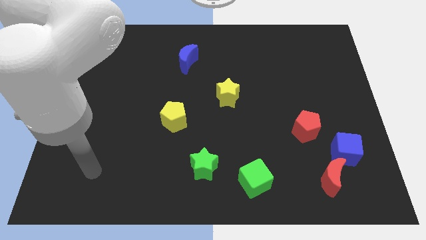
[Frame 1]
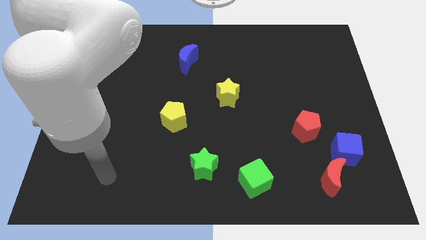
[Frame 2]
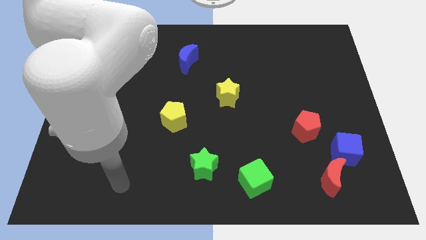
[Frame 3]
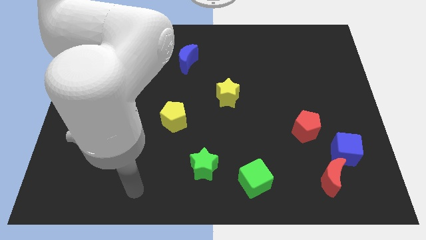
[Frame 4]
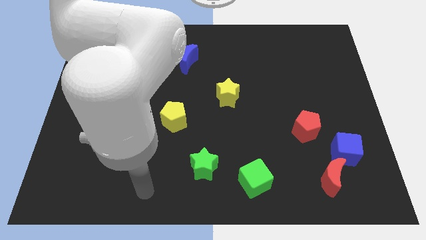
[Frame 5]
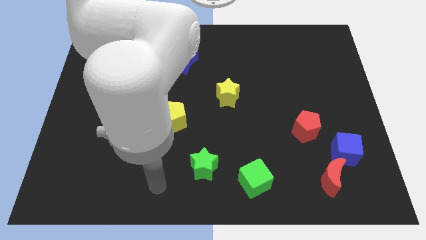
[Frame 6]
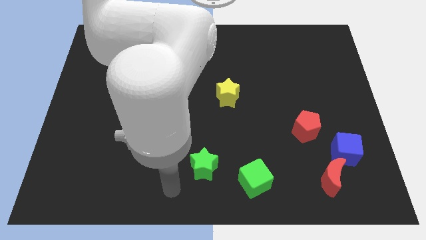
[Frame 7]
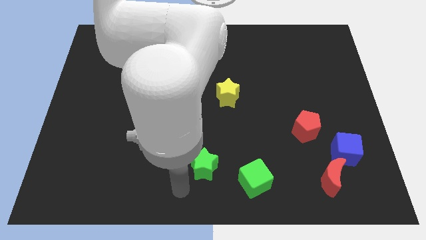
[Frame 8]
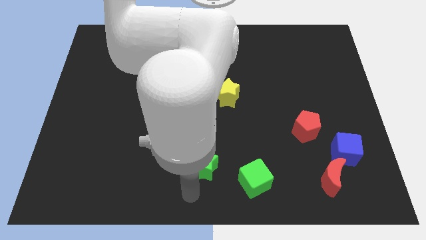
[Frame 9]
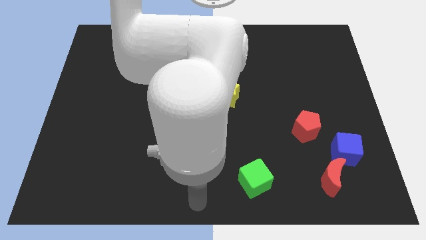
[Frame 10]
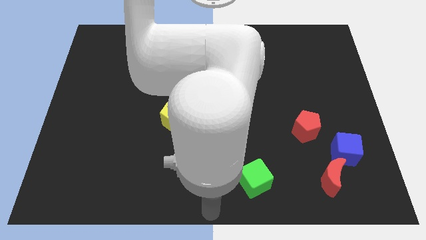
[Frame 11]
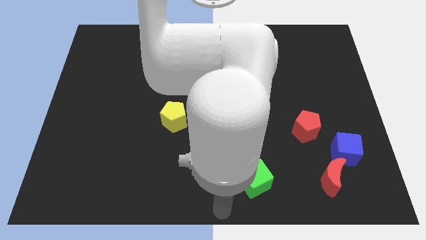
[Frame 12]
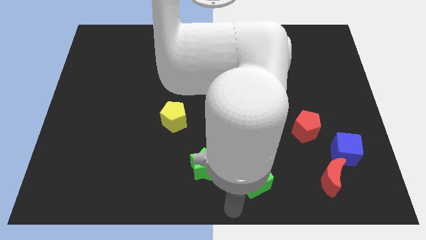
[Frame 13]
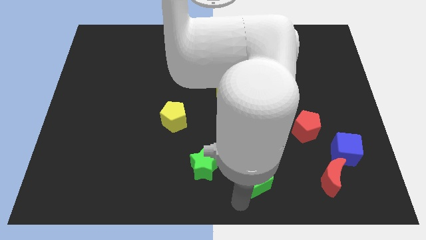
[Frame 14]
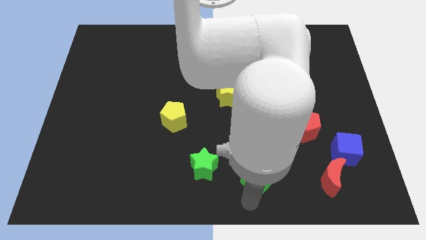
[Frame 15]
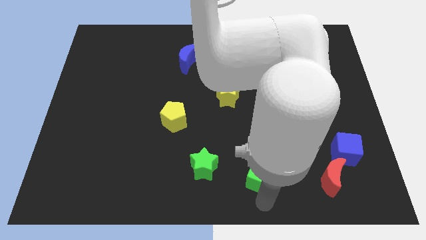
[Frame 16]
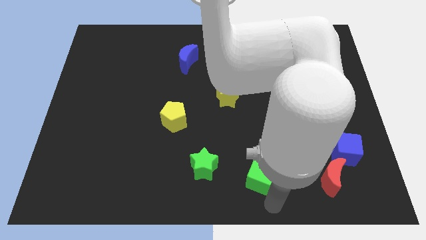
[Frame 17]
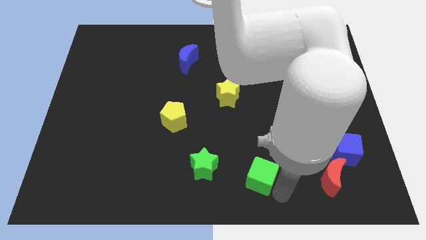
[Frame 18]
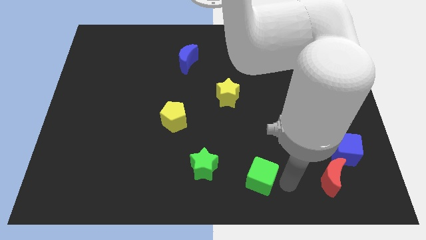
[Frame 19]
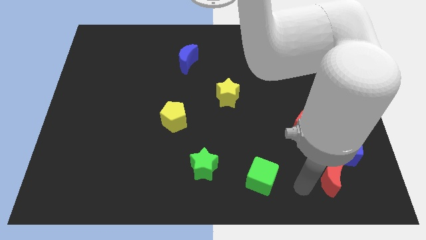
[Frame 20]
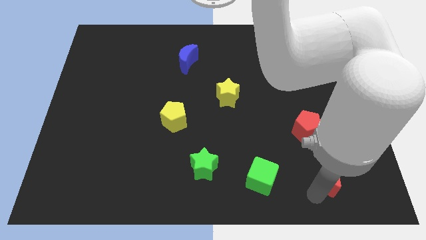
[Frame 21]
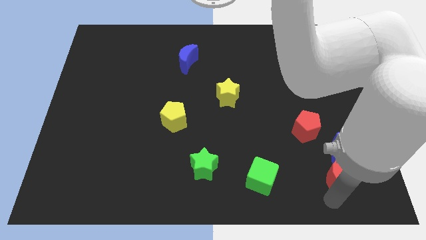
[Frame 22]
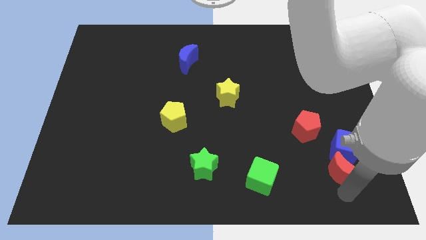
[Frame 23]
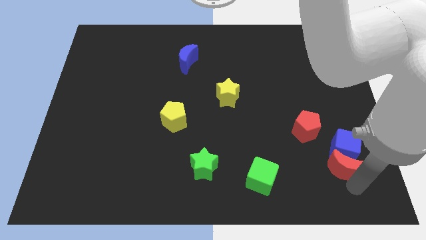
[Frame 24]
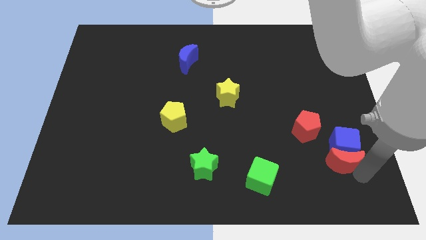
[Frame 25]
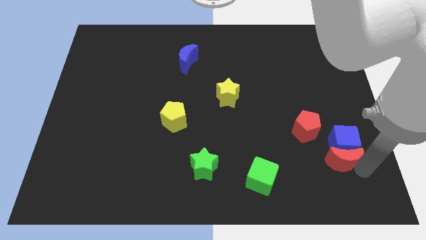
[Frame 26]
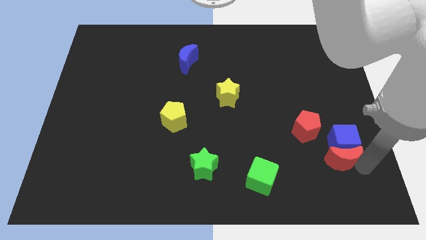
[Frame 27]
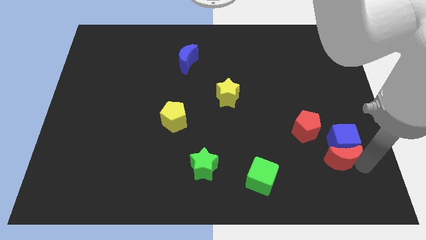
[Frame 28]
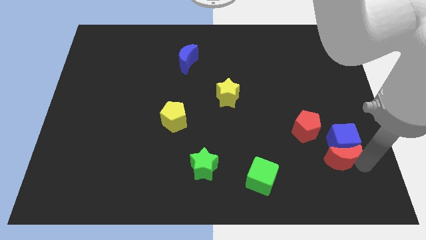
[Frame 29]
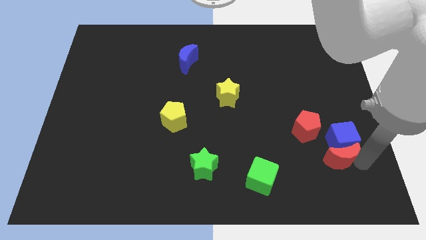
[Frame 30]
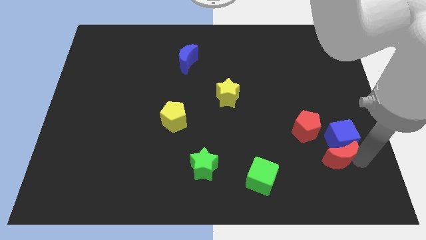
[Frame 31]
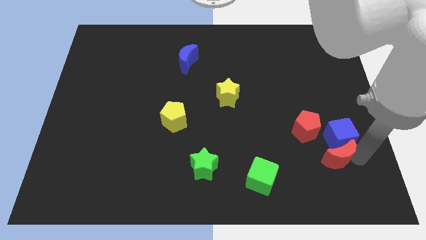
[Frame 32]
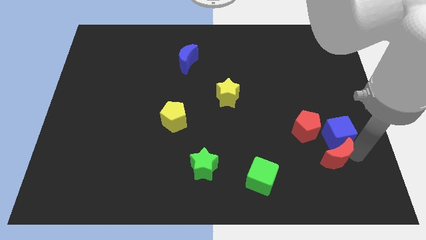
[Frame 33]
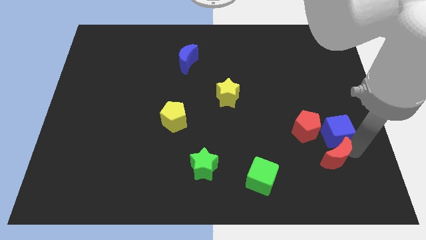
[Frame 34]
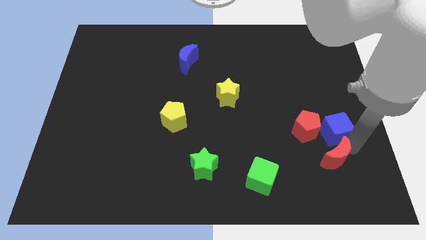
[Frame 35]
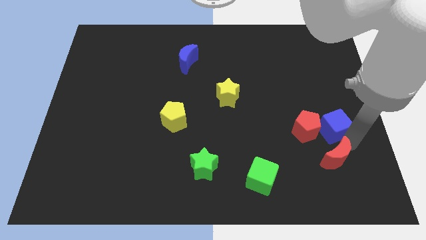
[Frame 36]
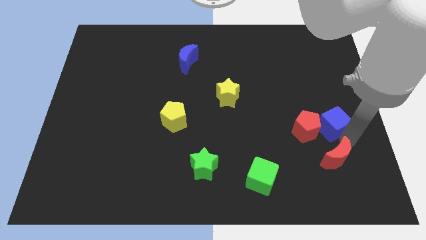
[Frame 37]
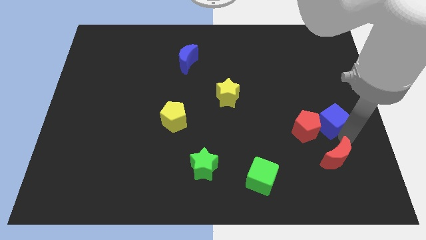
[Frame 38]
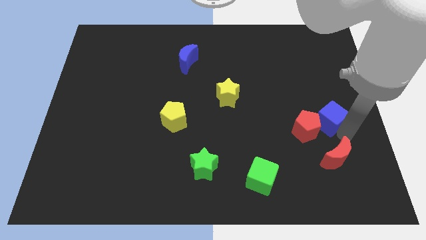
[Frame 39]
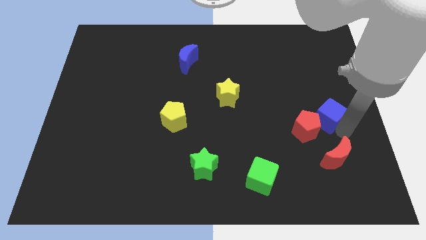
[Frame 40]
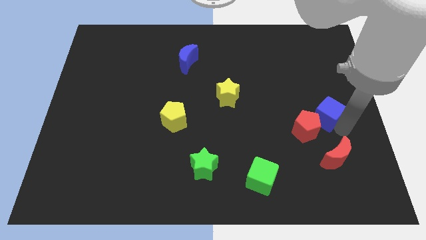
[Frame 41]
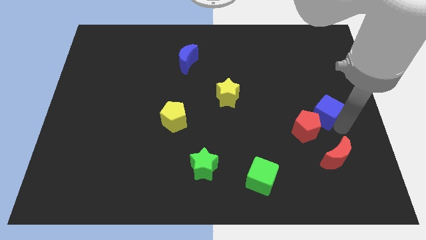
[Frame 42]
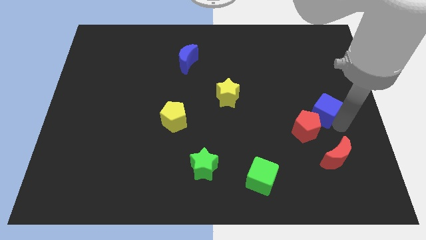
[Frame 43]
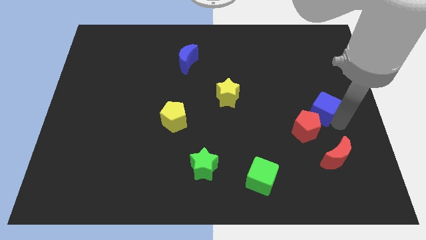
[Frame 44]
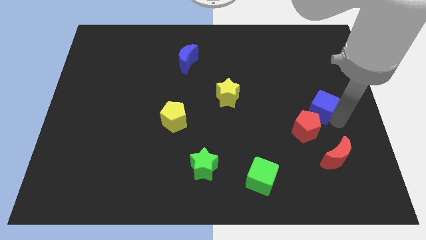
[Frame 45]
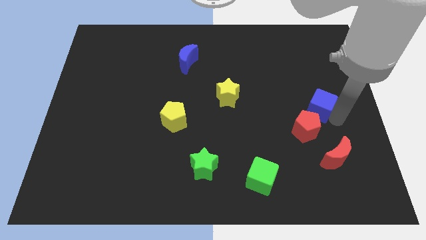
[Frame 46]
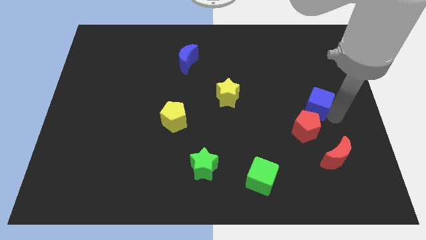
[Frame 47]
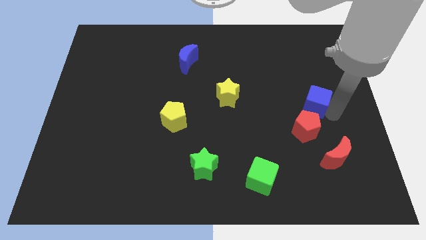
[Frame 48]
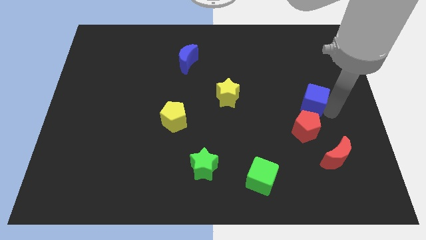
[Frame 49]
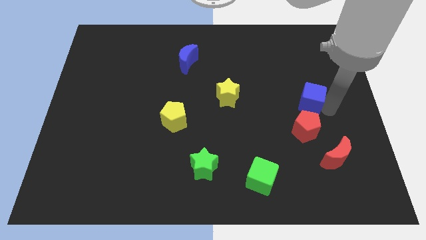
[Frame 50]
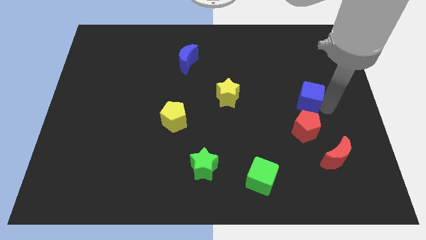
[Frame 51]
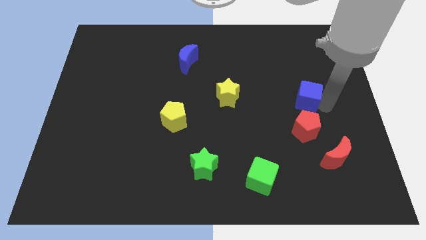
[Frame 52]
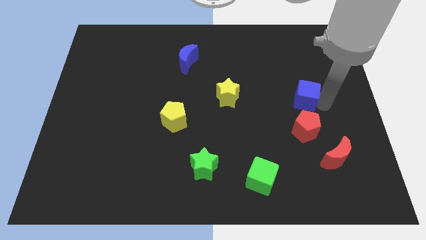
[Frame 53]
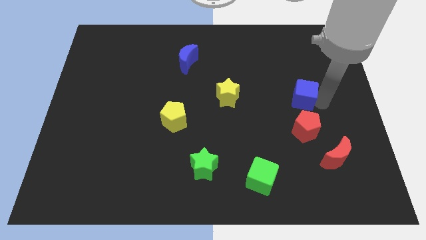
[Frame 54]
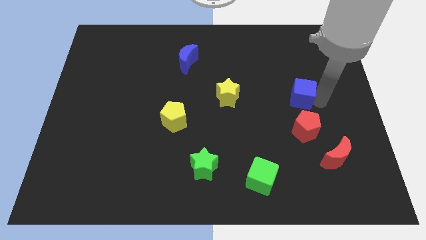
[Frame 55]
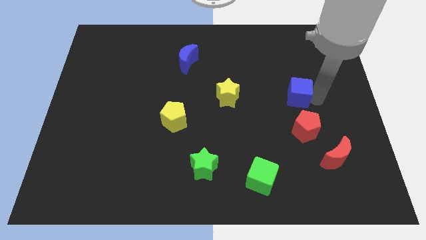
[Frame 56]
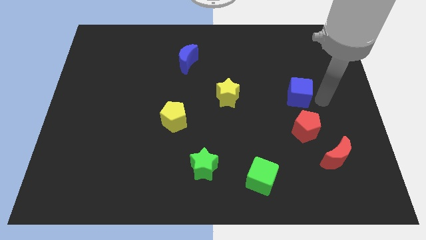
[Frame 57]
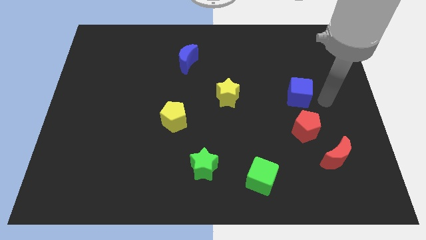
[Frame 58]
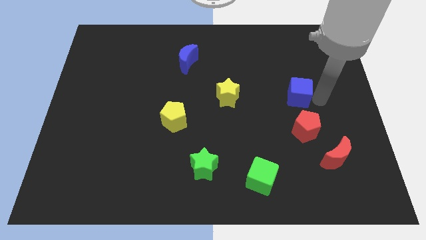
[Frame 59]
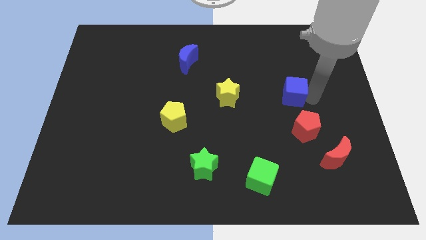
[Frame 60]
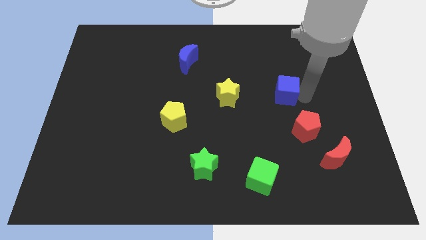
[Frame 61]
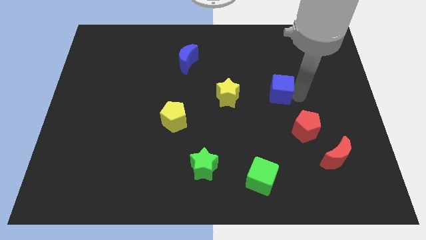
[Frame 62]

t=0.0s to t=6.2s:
push the blue cube diagonally upwards and to the left

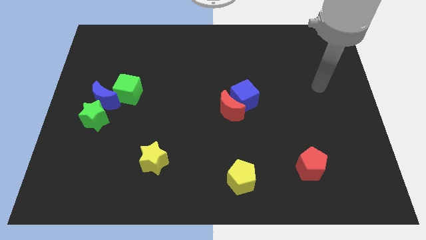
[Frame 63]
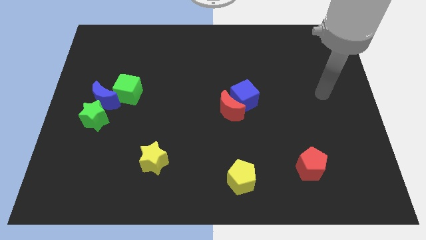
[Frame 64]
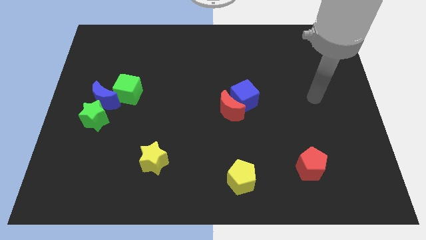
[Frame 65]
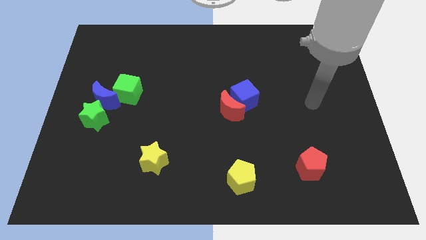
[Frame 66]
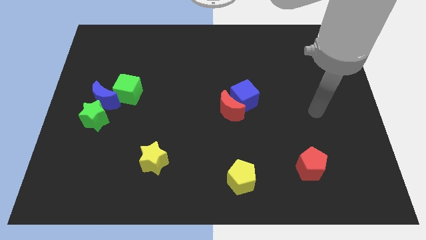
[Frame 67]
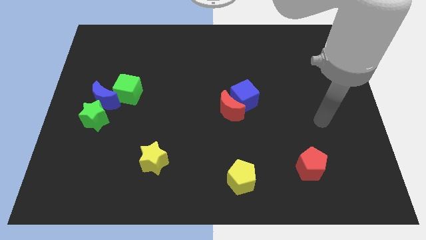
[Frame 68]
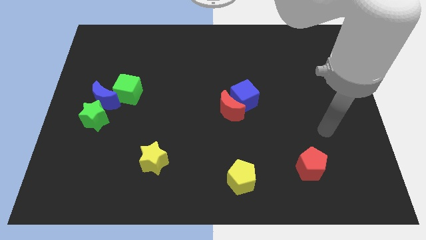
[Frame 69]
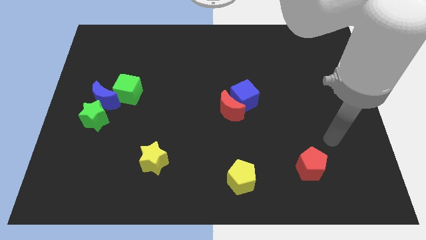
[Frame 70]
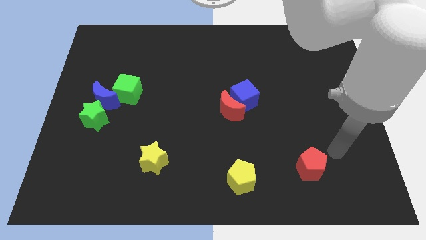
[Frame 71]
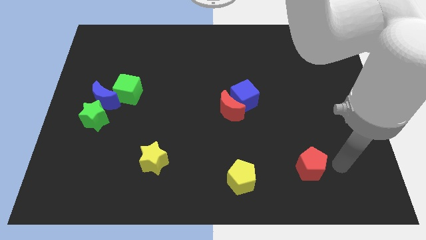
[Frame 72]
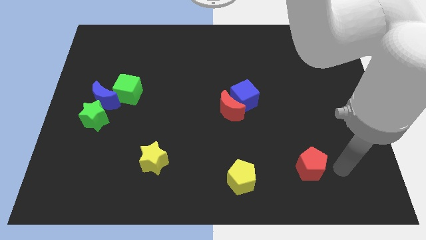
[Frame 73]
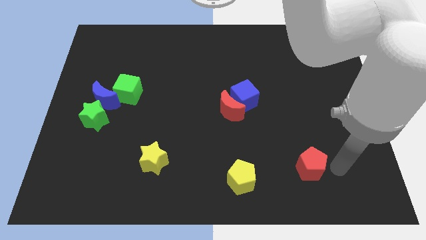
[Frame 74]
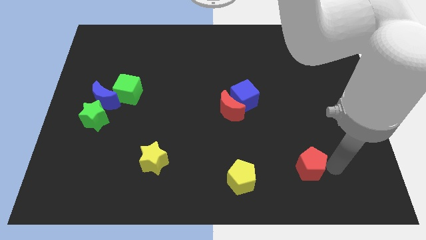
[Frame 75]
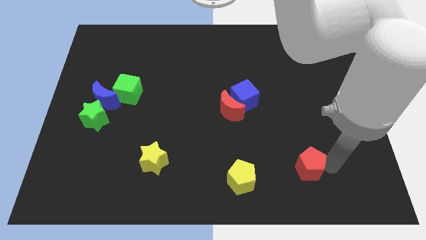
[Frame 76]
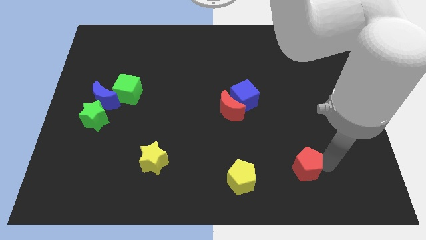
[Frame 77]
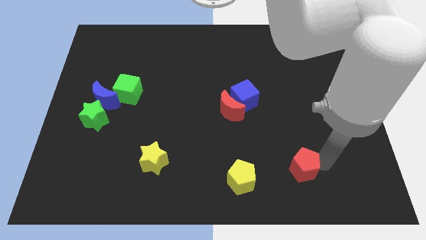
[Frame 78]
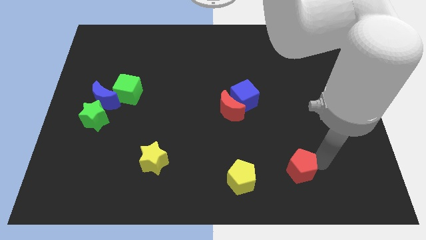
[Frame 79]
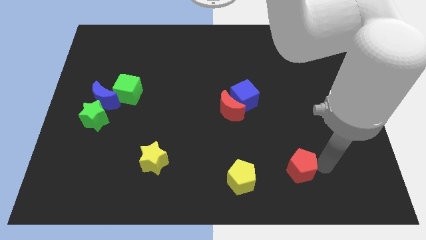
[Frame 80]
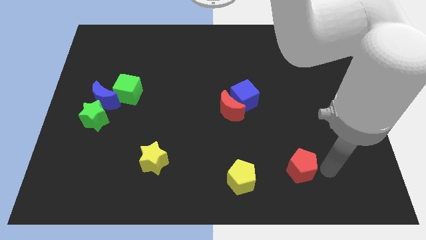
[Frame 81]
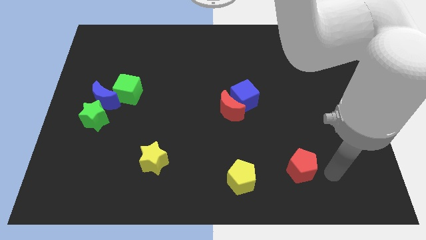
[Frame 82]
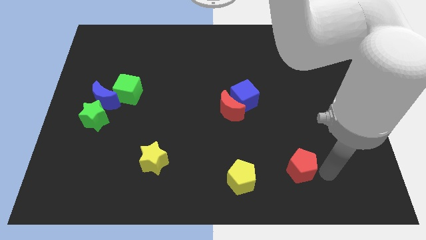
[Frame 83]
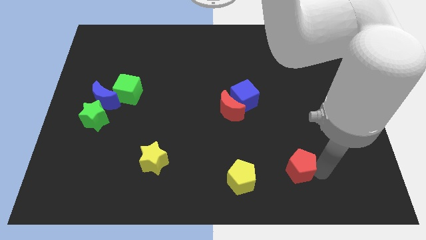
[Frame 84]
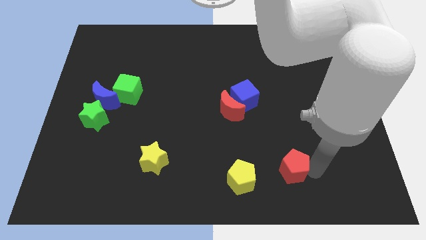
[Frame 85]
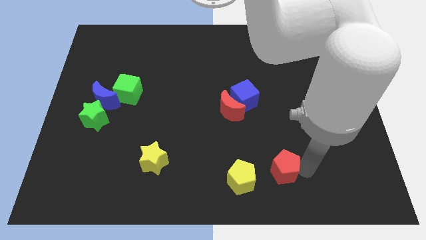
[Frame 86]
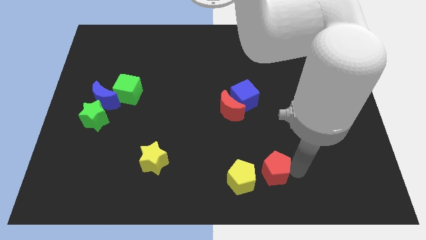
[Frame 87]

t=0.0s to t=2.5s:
slide the red pentagon somewhat to the left
